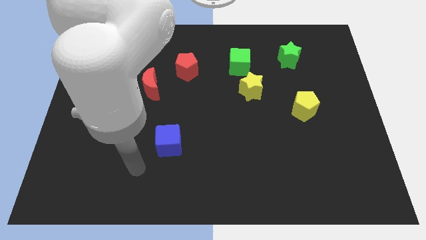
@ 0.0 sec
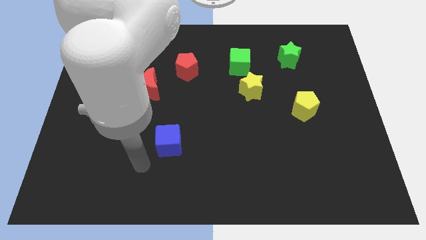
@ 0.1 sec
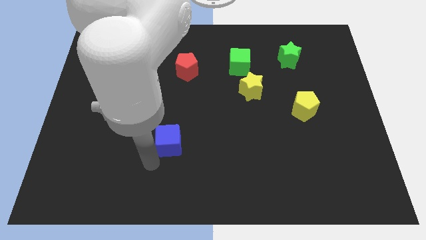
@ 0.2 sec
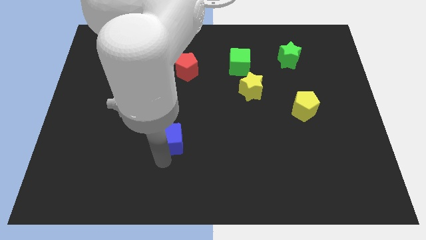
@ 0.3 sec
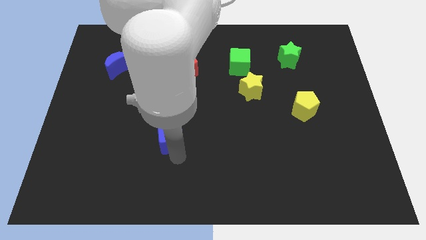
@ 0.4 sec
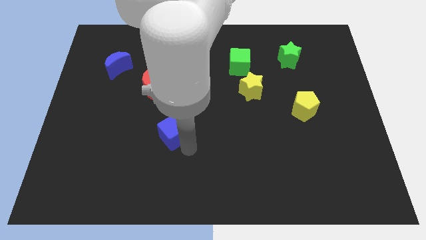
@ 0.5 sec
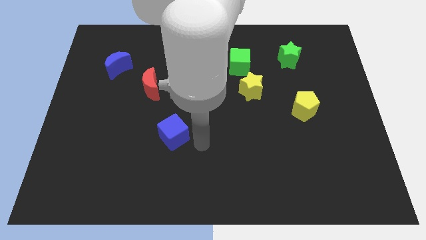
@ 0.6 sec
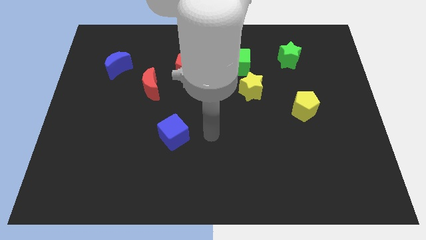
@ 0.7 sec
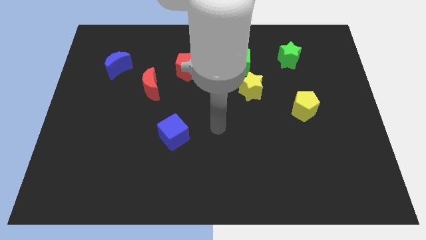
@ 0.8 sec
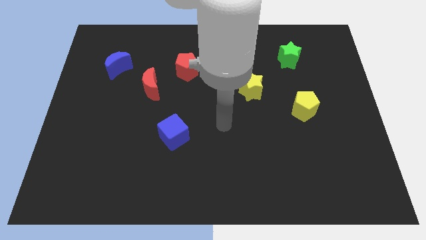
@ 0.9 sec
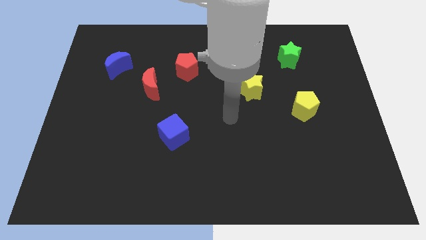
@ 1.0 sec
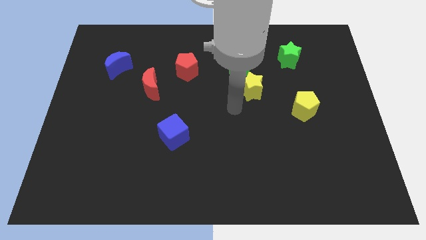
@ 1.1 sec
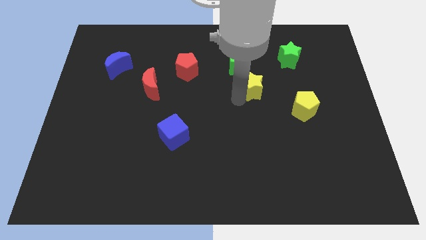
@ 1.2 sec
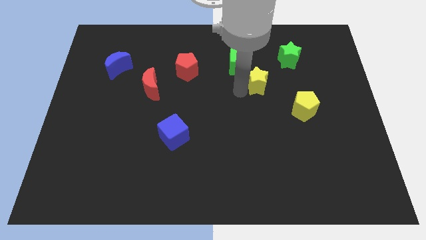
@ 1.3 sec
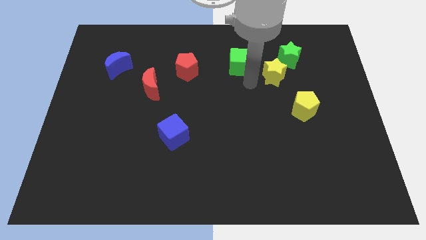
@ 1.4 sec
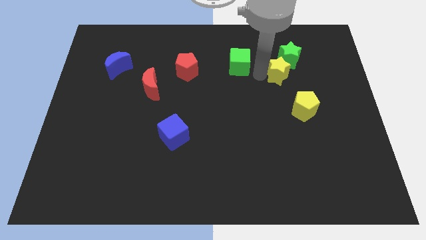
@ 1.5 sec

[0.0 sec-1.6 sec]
separate the green cube from the yellow star

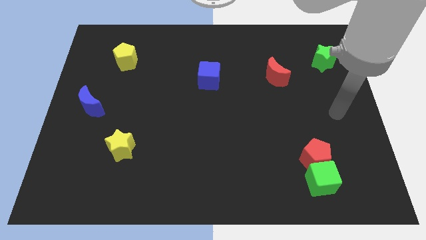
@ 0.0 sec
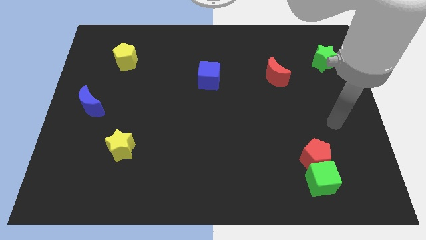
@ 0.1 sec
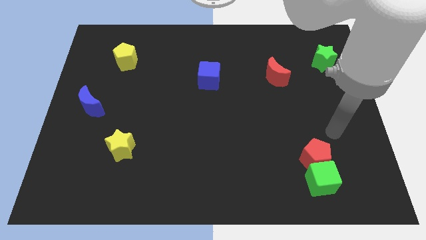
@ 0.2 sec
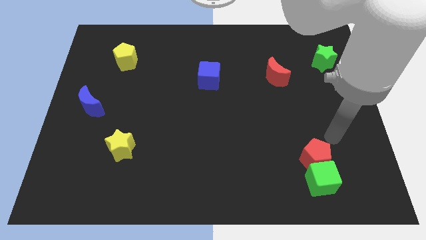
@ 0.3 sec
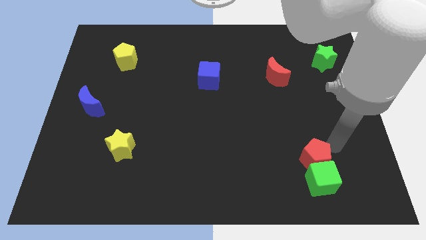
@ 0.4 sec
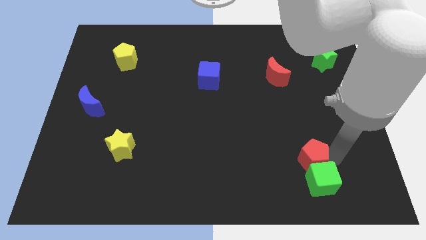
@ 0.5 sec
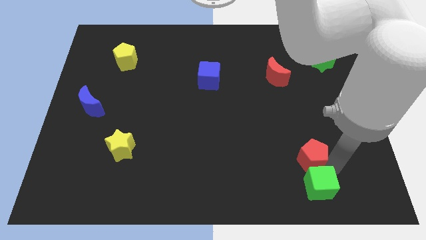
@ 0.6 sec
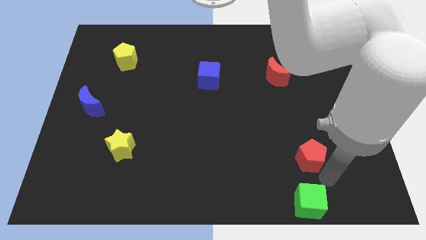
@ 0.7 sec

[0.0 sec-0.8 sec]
separate the red pentagon from the green cube

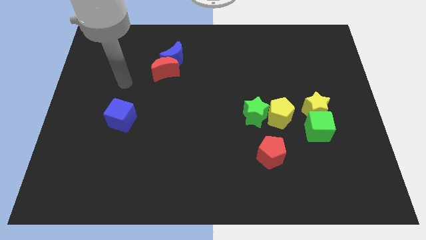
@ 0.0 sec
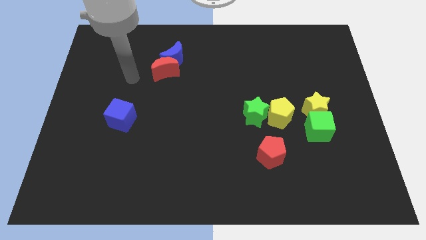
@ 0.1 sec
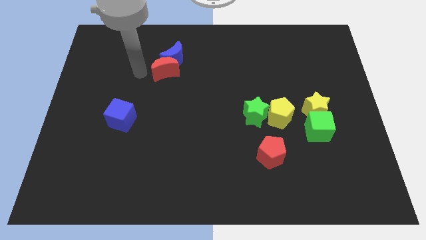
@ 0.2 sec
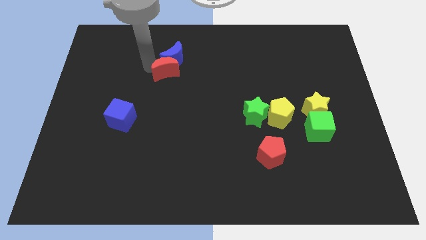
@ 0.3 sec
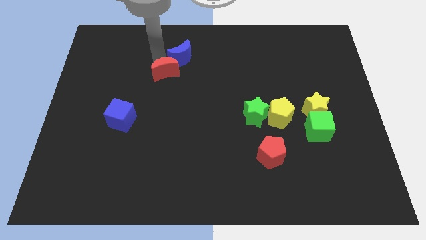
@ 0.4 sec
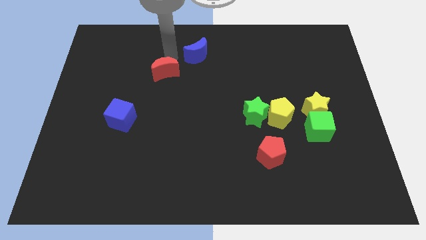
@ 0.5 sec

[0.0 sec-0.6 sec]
move the red moon away from the blue moon

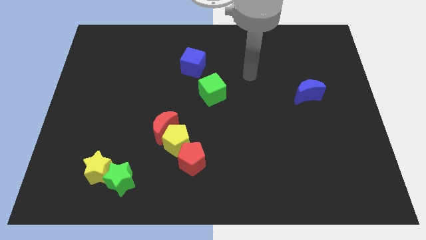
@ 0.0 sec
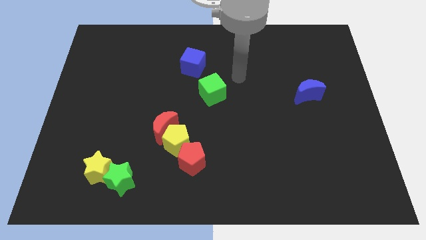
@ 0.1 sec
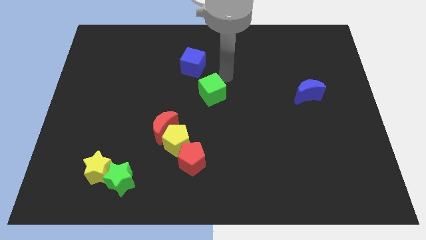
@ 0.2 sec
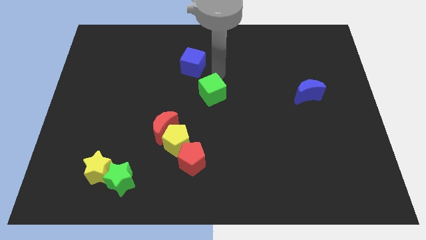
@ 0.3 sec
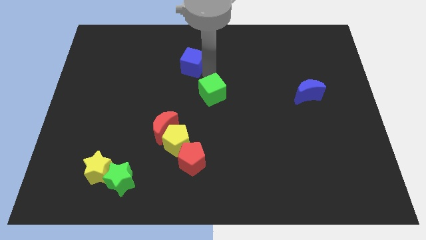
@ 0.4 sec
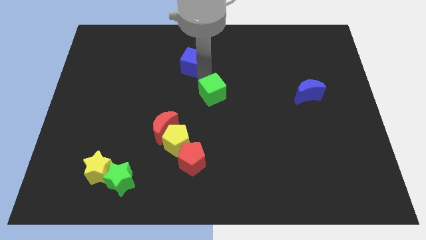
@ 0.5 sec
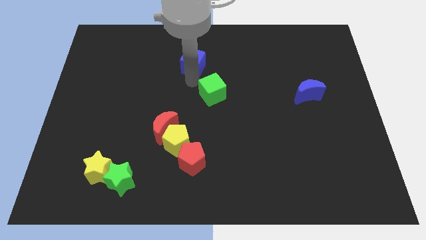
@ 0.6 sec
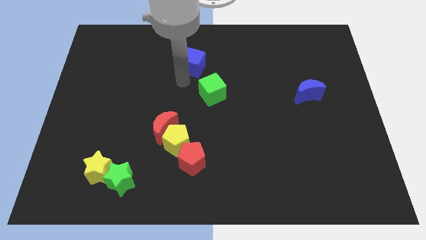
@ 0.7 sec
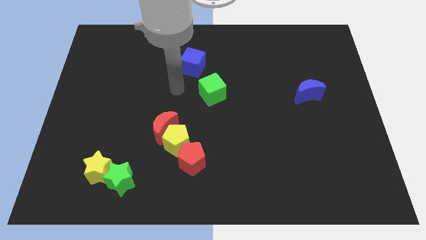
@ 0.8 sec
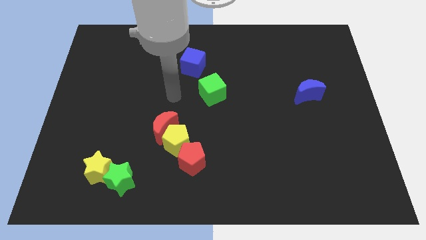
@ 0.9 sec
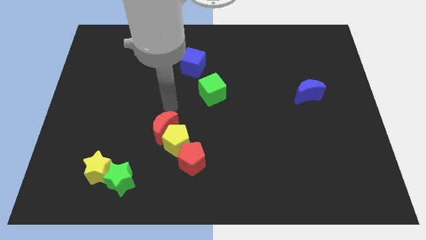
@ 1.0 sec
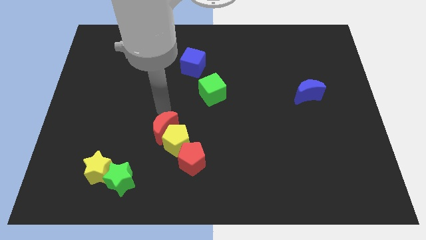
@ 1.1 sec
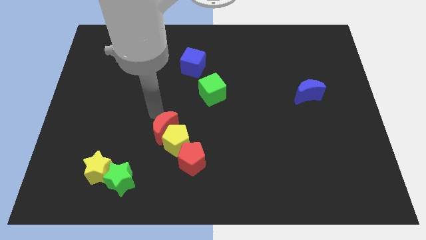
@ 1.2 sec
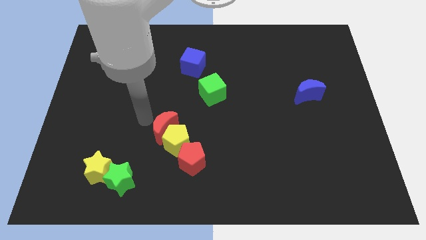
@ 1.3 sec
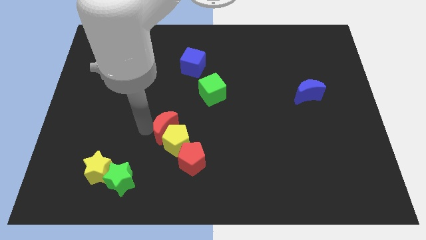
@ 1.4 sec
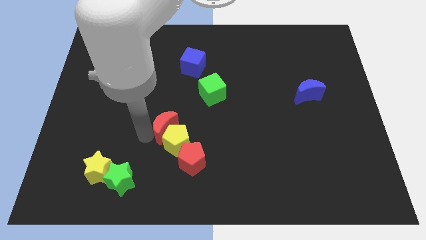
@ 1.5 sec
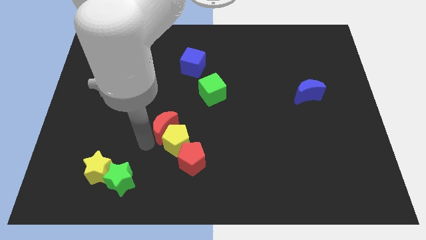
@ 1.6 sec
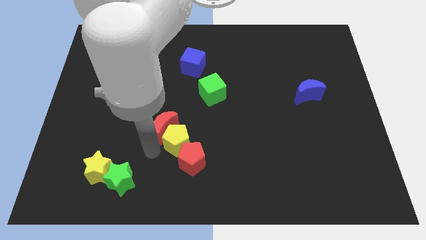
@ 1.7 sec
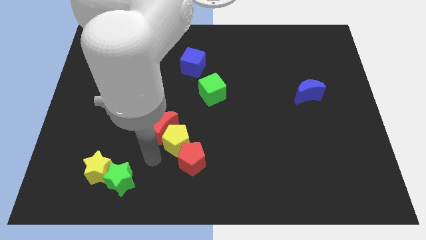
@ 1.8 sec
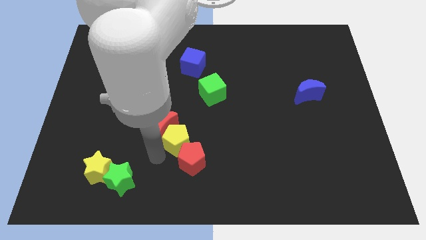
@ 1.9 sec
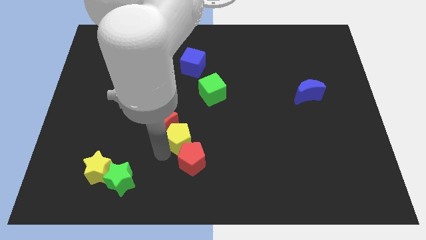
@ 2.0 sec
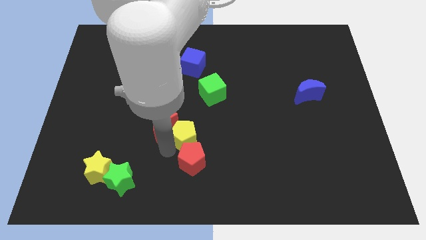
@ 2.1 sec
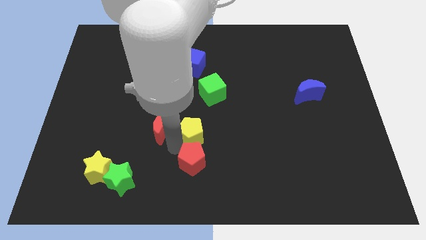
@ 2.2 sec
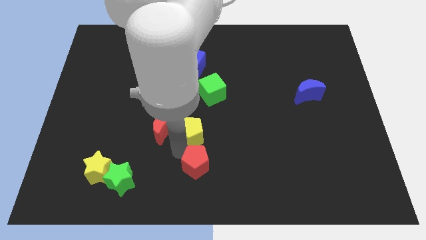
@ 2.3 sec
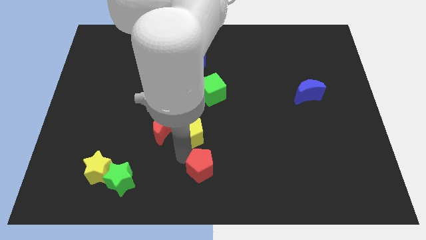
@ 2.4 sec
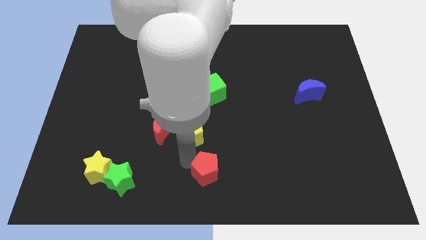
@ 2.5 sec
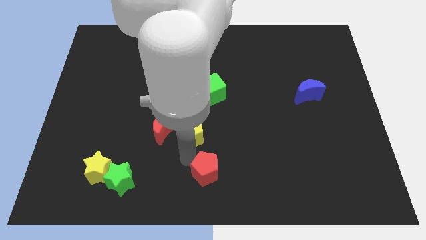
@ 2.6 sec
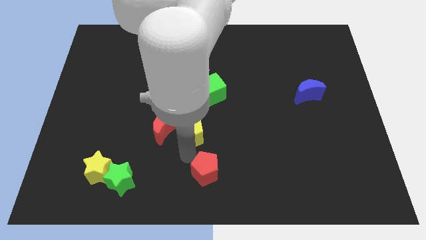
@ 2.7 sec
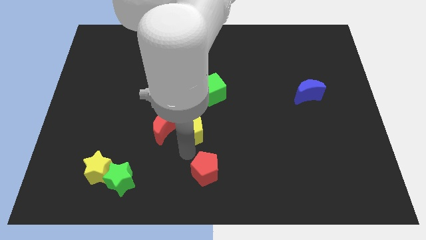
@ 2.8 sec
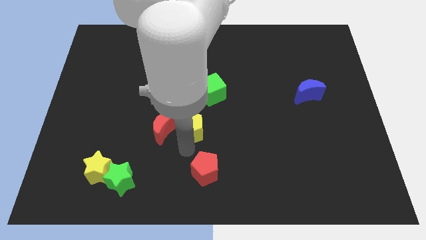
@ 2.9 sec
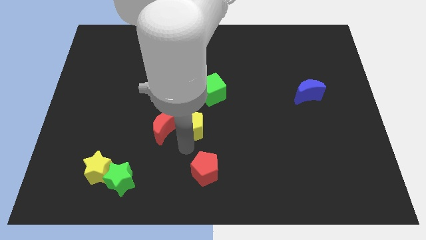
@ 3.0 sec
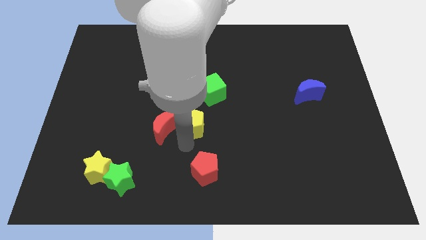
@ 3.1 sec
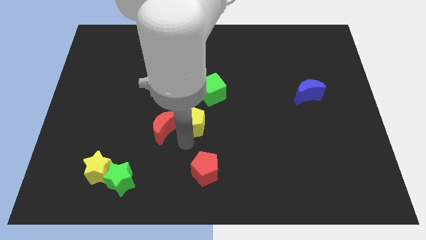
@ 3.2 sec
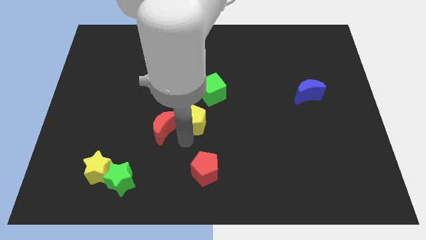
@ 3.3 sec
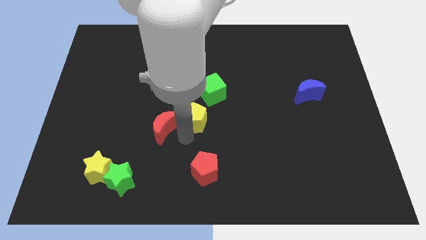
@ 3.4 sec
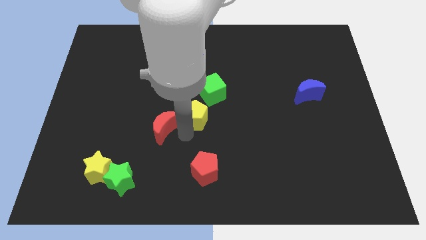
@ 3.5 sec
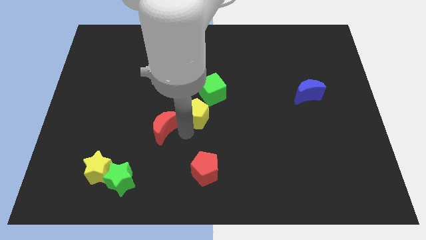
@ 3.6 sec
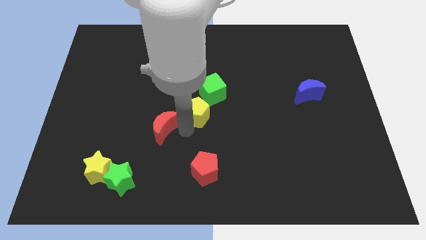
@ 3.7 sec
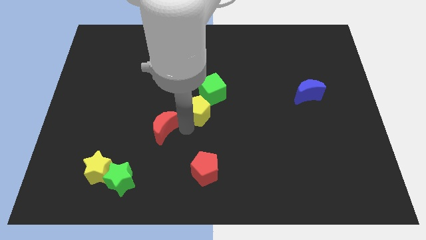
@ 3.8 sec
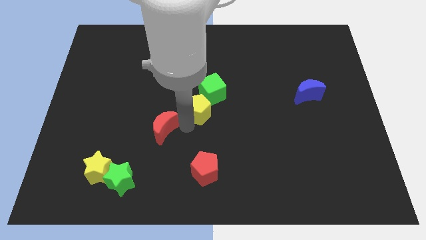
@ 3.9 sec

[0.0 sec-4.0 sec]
pull the yellow pentagon apart from the red moon and red pentagon

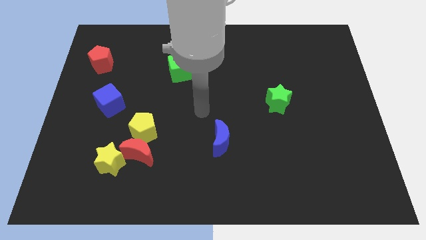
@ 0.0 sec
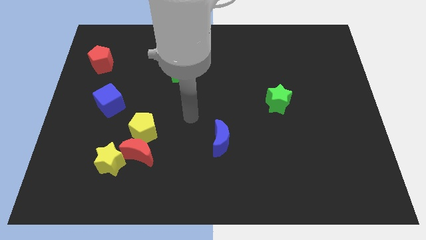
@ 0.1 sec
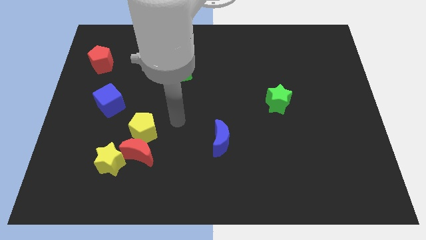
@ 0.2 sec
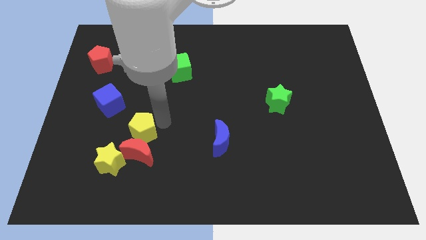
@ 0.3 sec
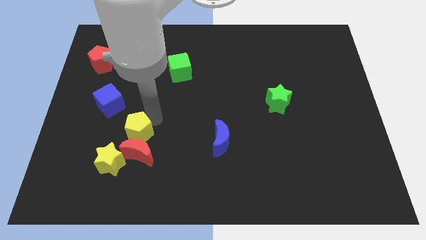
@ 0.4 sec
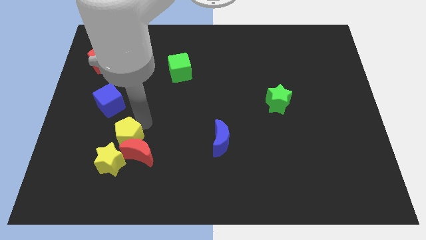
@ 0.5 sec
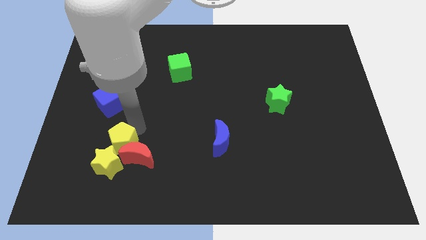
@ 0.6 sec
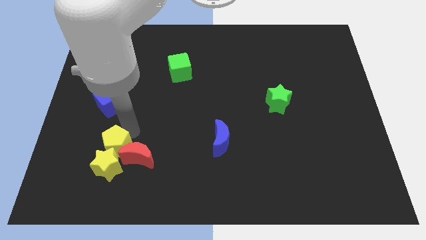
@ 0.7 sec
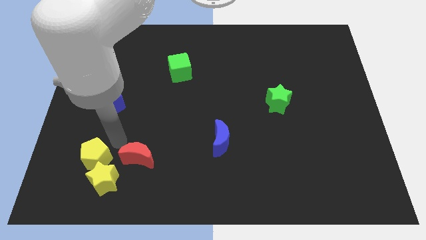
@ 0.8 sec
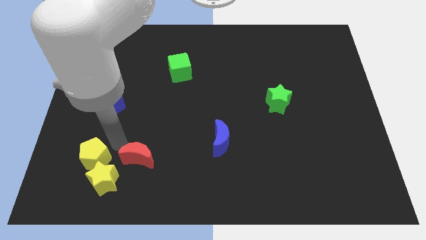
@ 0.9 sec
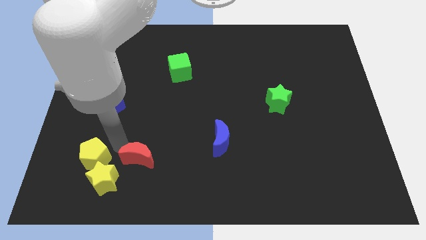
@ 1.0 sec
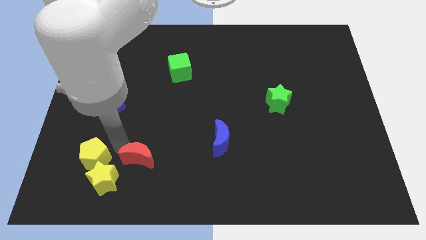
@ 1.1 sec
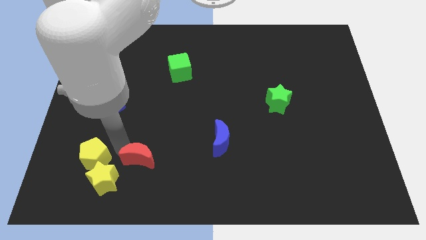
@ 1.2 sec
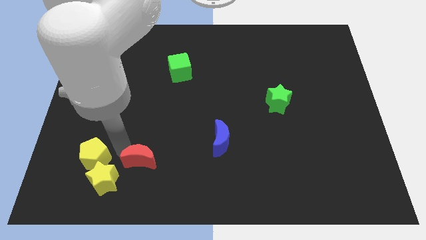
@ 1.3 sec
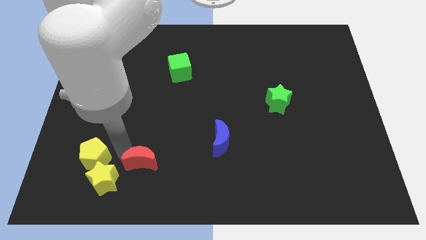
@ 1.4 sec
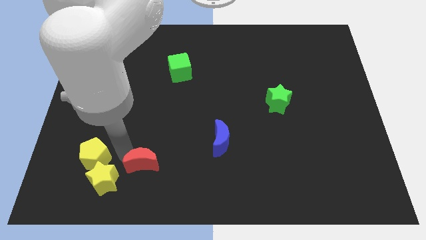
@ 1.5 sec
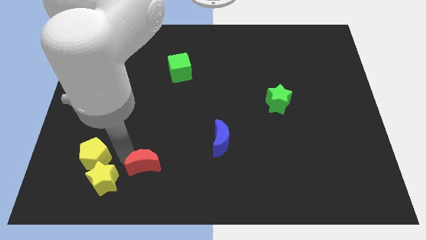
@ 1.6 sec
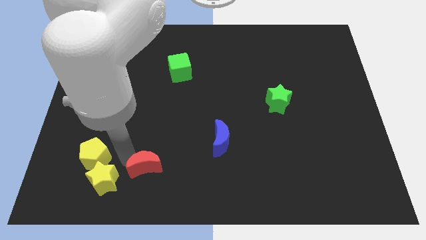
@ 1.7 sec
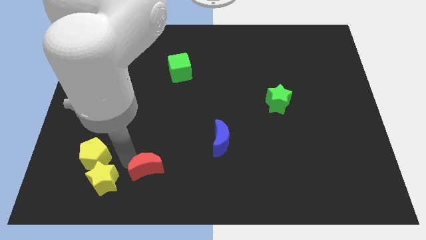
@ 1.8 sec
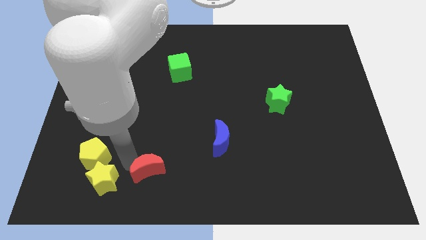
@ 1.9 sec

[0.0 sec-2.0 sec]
separate the red moon from the yellow pentagon and yellow star

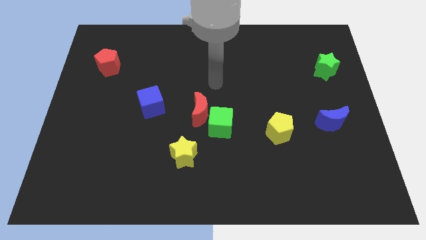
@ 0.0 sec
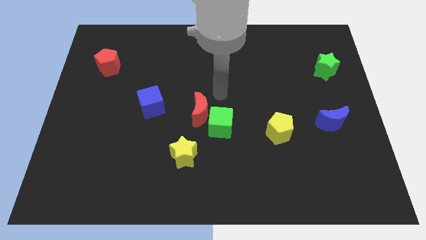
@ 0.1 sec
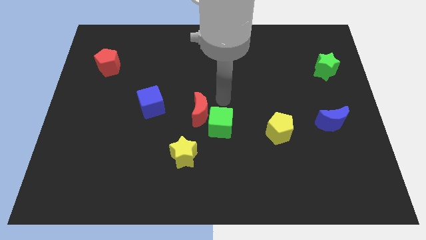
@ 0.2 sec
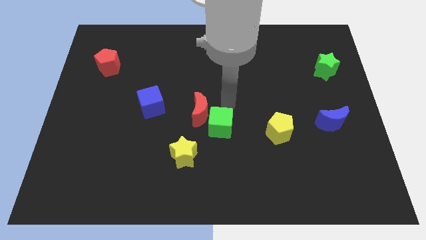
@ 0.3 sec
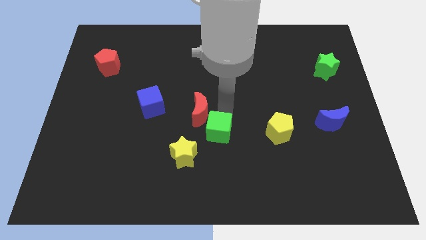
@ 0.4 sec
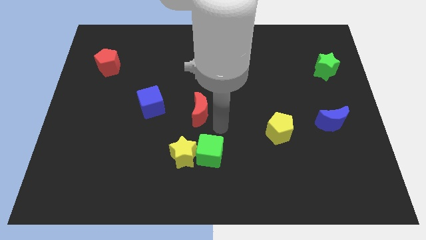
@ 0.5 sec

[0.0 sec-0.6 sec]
separate the red moon from the green cube
